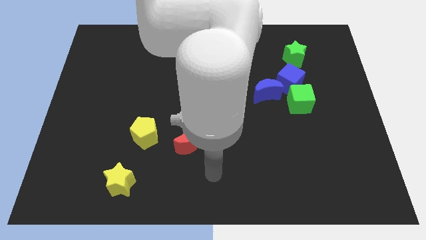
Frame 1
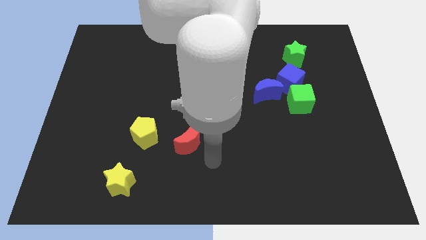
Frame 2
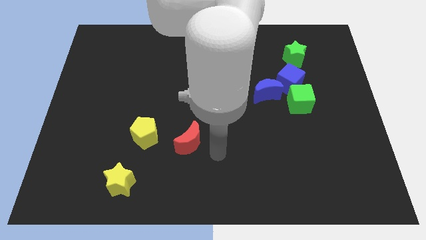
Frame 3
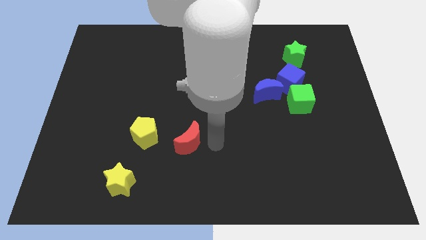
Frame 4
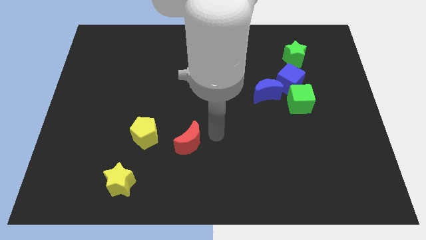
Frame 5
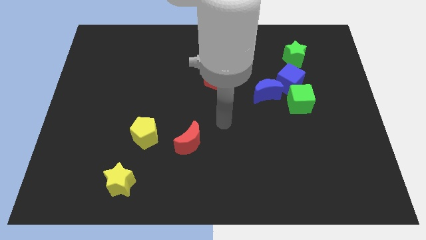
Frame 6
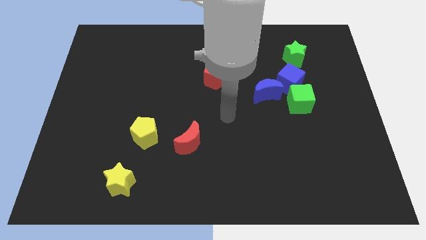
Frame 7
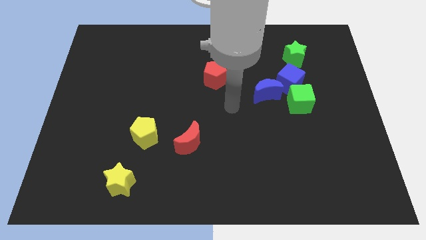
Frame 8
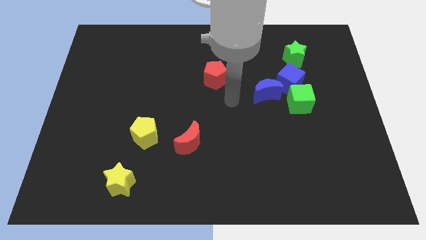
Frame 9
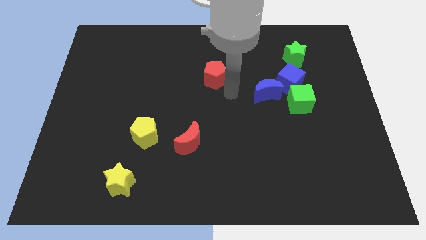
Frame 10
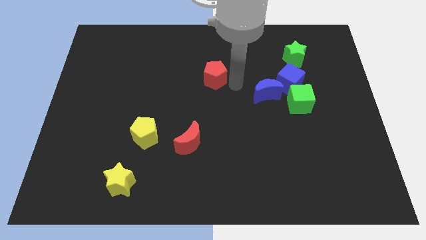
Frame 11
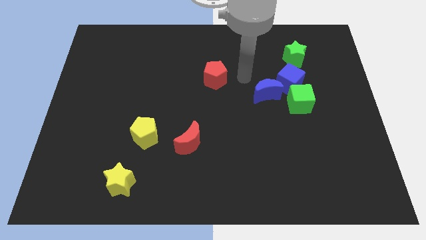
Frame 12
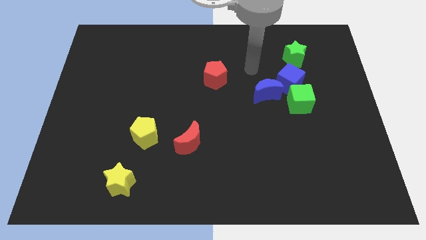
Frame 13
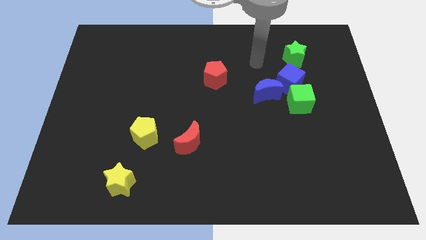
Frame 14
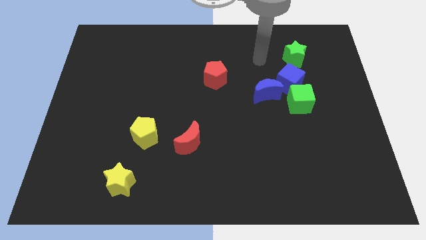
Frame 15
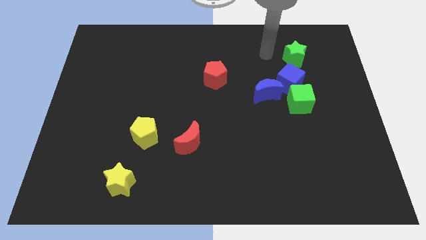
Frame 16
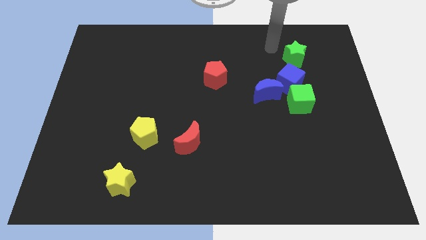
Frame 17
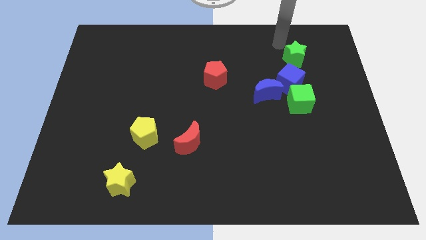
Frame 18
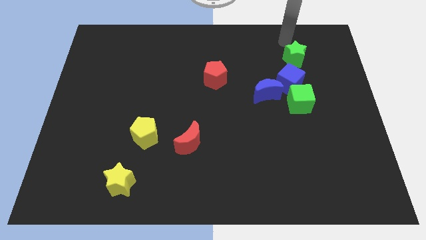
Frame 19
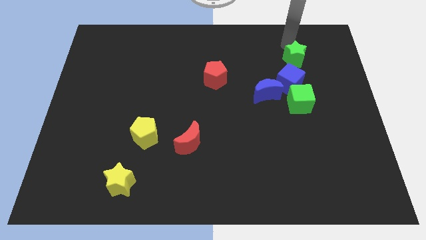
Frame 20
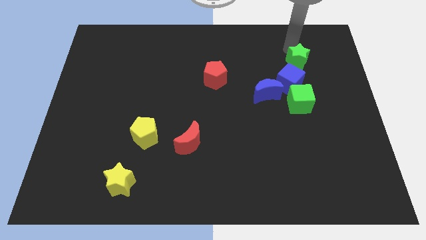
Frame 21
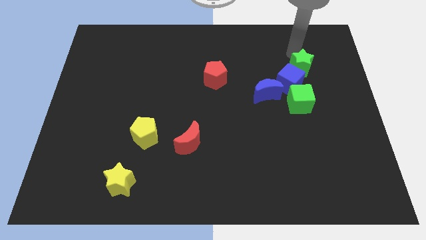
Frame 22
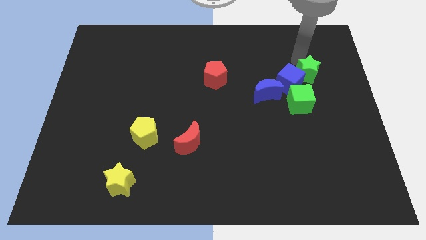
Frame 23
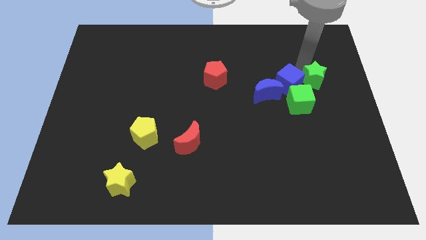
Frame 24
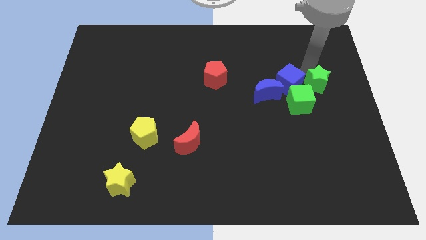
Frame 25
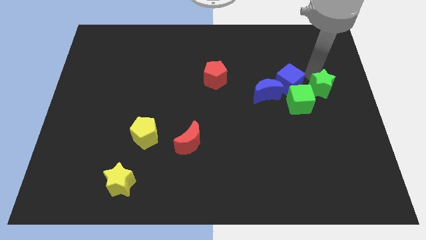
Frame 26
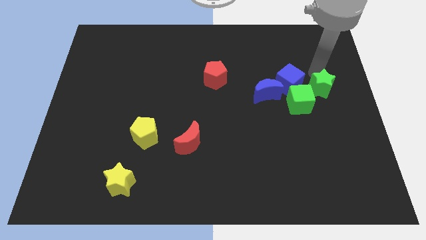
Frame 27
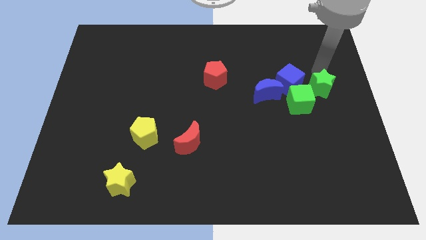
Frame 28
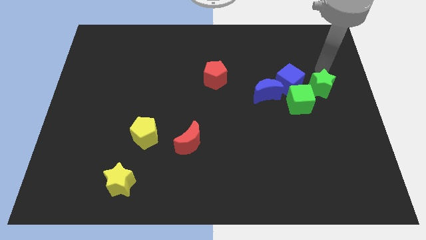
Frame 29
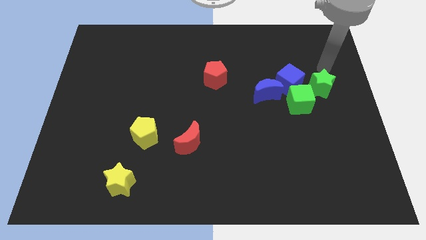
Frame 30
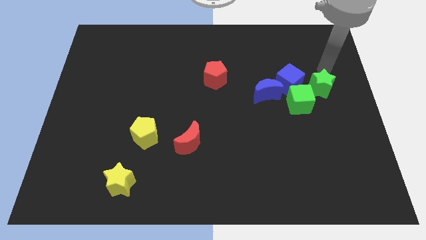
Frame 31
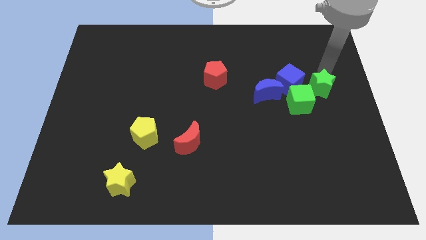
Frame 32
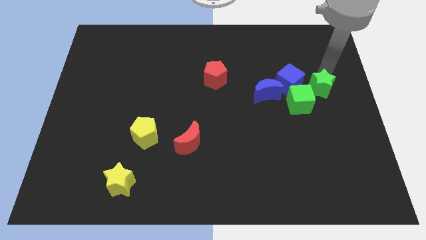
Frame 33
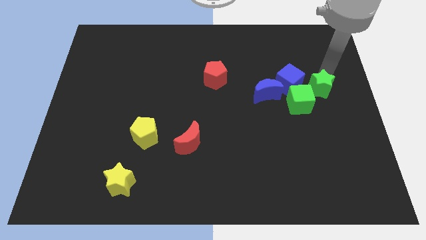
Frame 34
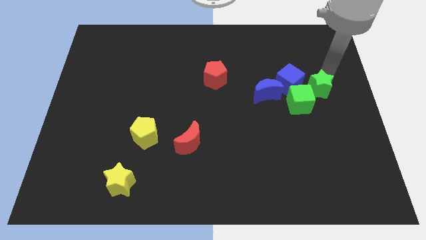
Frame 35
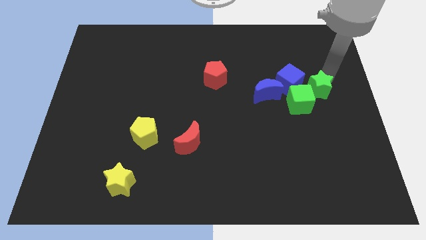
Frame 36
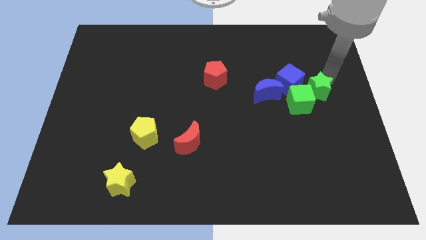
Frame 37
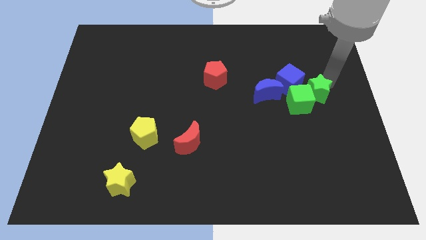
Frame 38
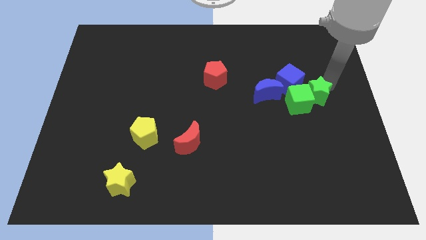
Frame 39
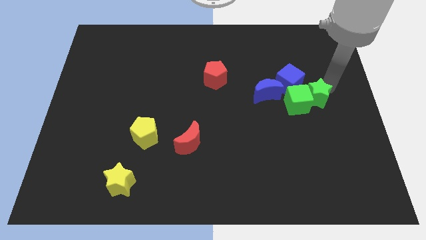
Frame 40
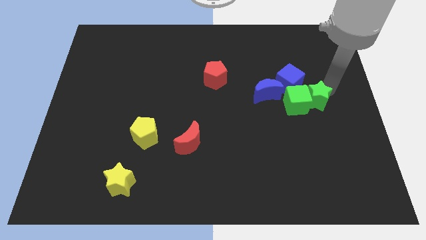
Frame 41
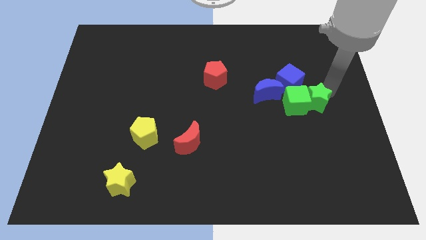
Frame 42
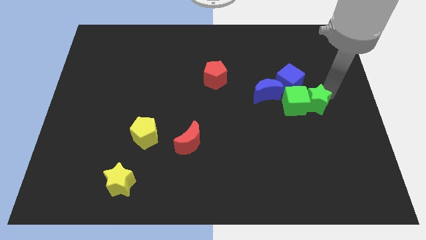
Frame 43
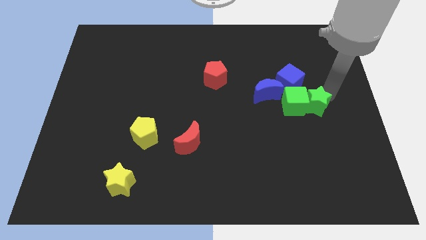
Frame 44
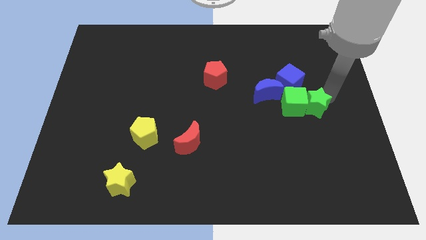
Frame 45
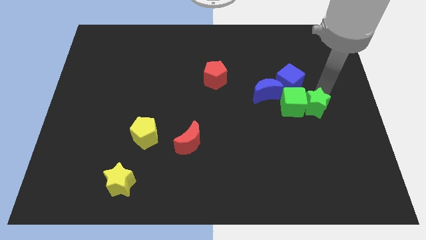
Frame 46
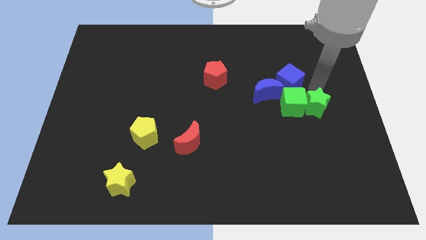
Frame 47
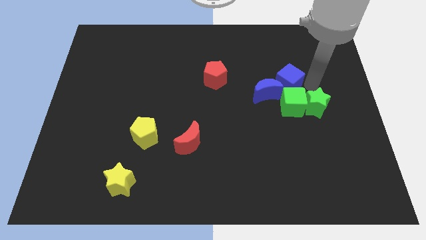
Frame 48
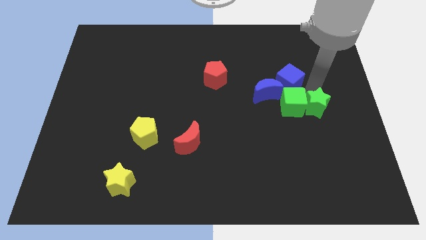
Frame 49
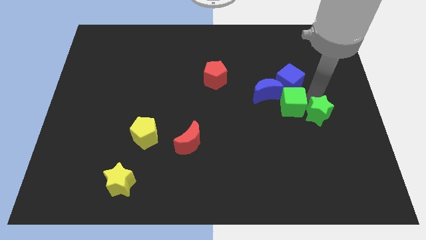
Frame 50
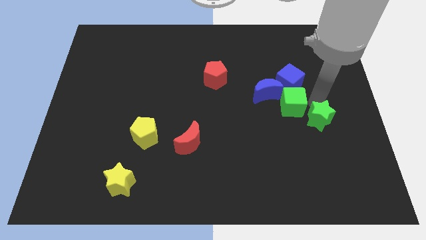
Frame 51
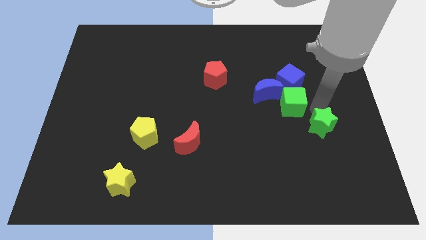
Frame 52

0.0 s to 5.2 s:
move the green star down

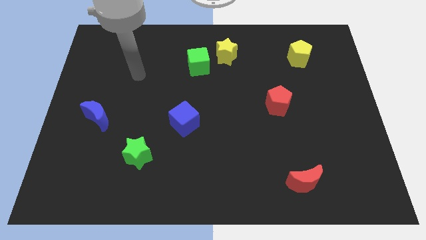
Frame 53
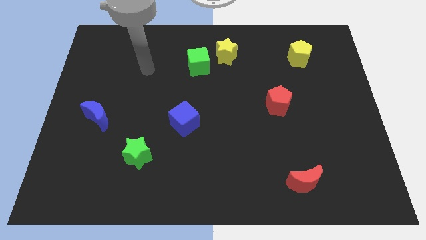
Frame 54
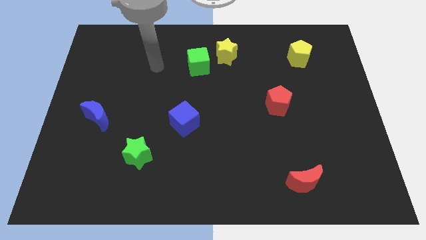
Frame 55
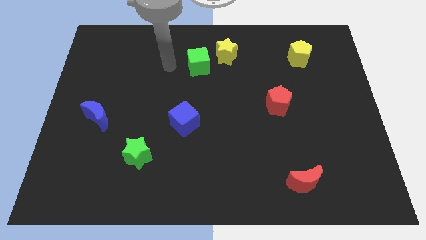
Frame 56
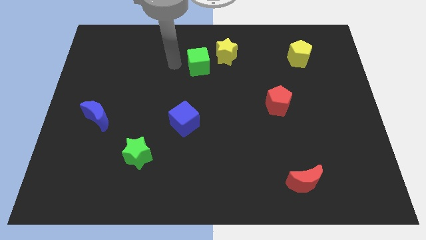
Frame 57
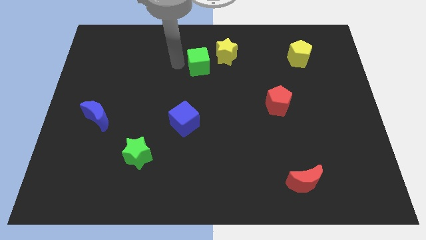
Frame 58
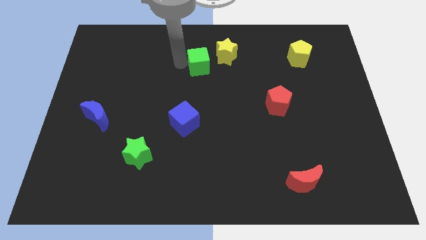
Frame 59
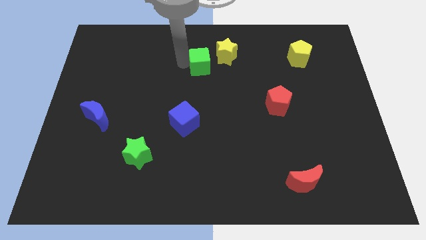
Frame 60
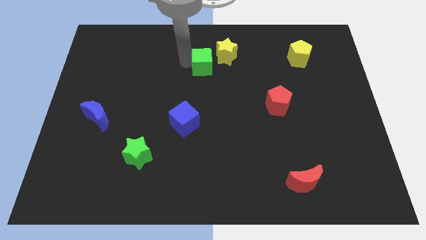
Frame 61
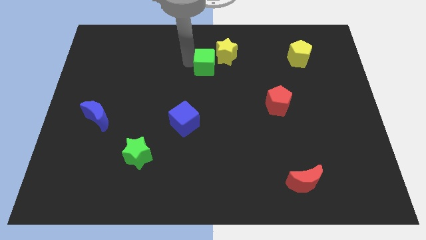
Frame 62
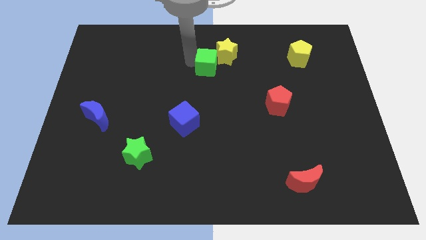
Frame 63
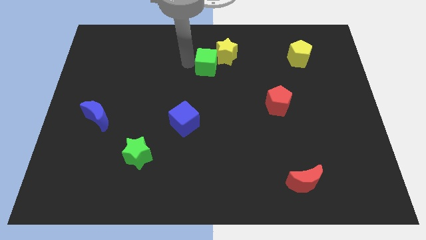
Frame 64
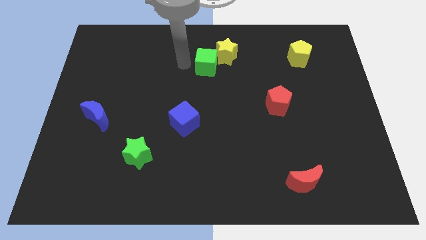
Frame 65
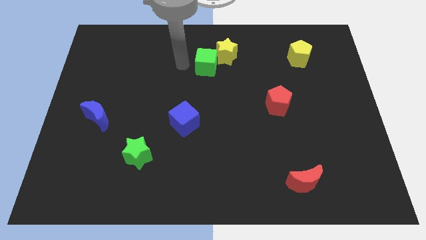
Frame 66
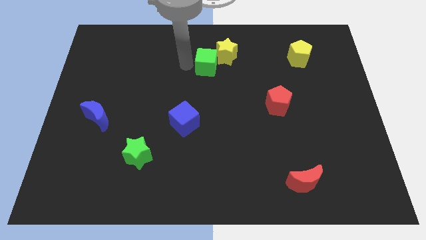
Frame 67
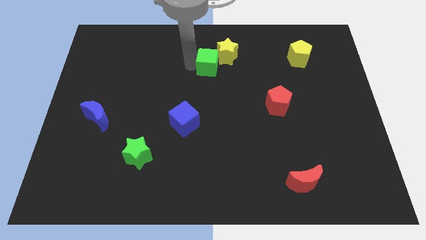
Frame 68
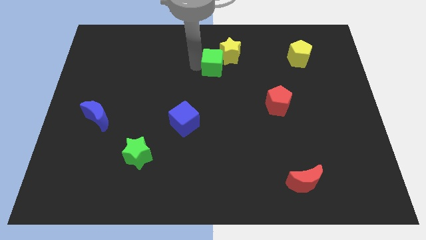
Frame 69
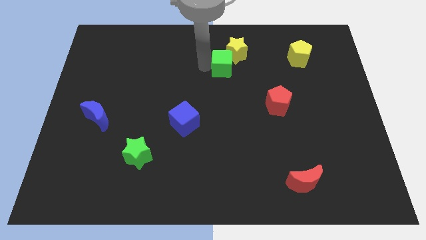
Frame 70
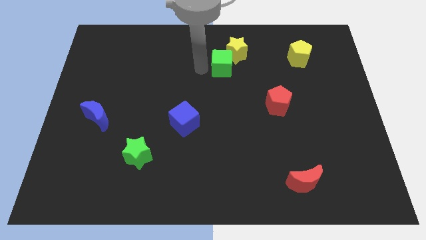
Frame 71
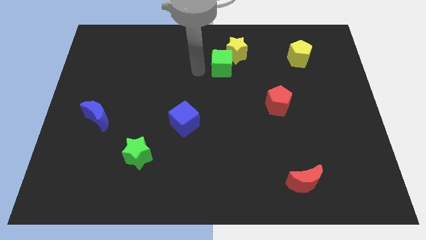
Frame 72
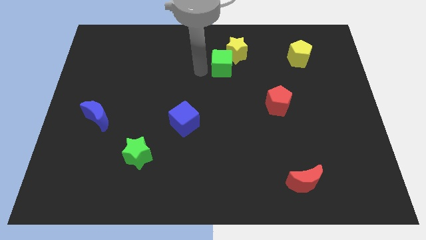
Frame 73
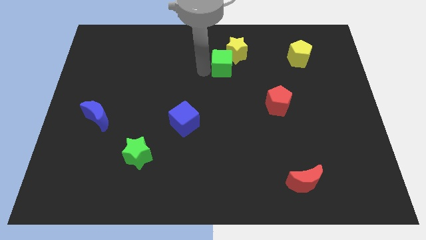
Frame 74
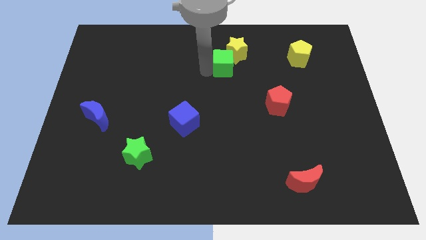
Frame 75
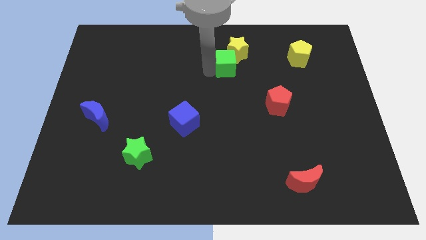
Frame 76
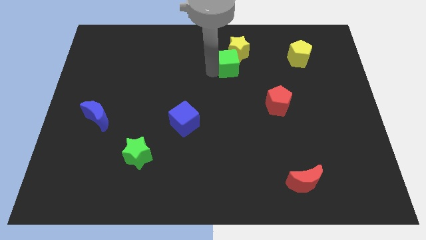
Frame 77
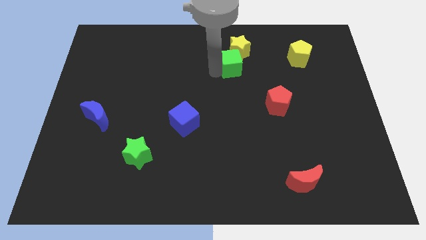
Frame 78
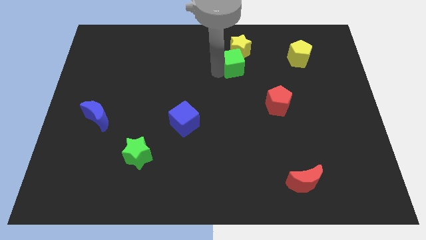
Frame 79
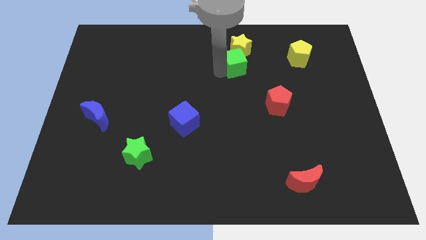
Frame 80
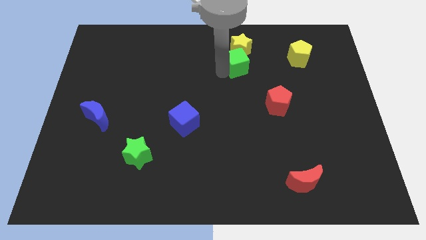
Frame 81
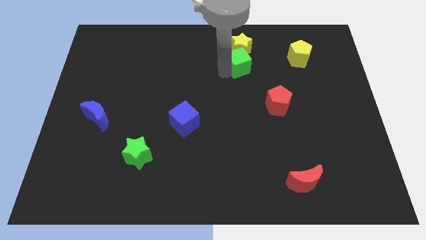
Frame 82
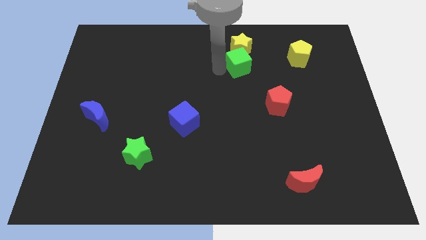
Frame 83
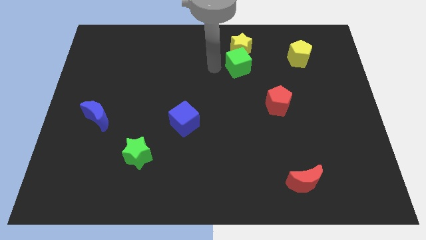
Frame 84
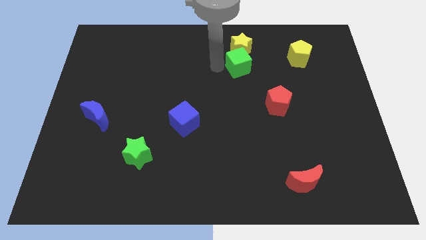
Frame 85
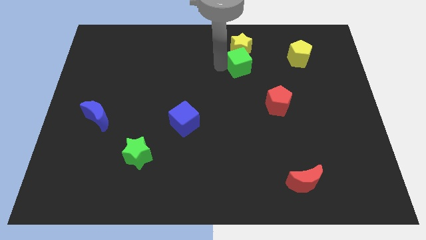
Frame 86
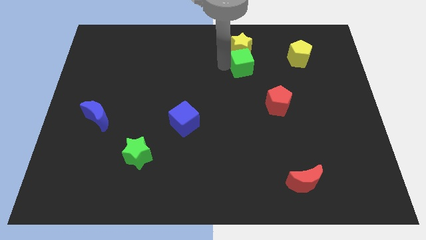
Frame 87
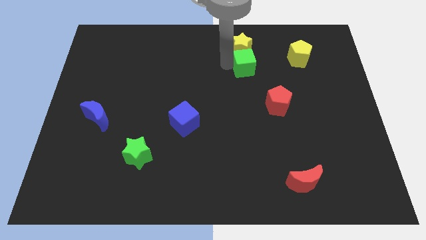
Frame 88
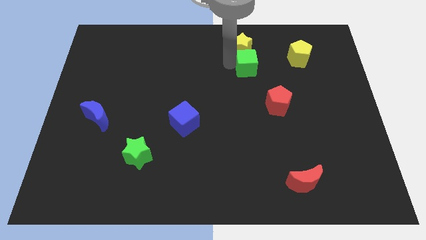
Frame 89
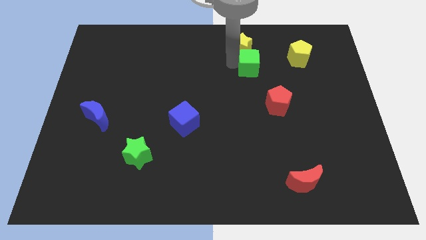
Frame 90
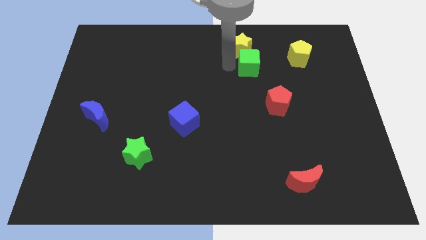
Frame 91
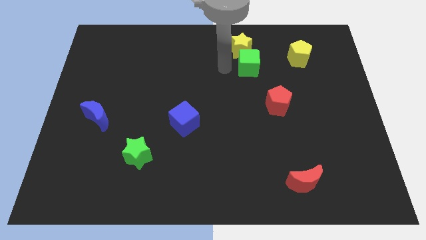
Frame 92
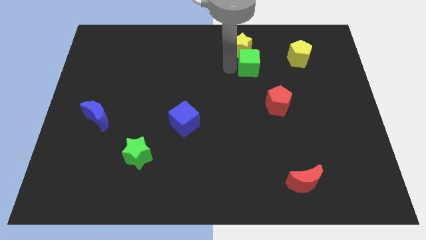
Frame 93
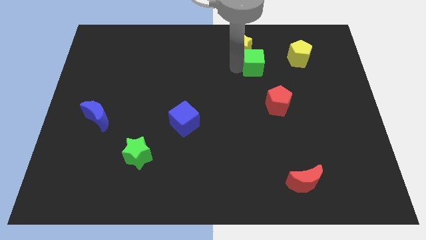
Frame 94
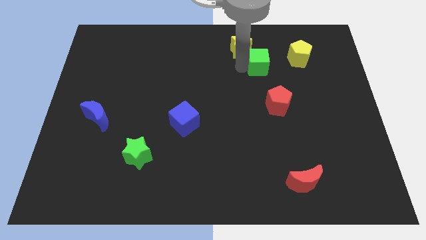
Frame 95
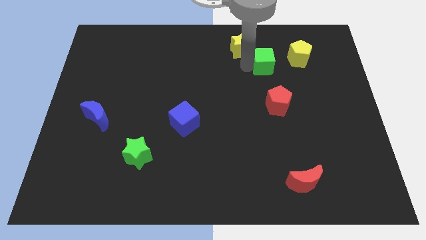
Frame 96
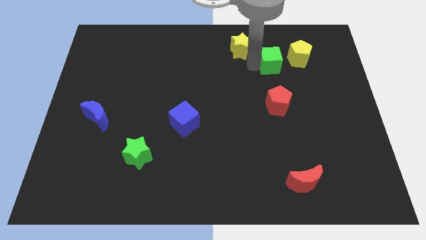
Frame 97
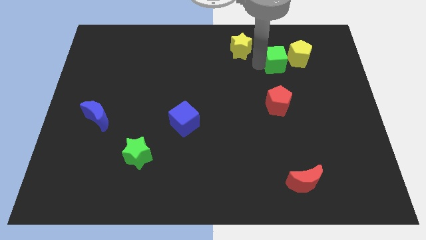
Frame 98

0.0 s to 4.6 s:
slide the green cube to the right
